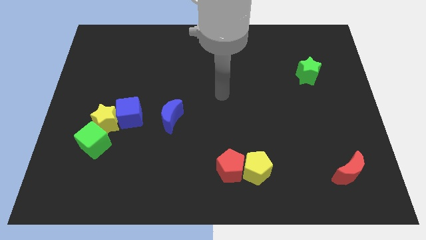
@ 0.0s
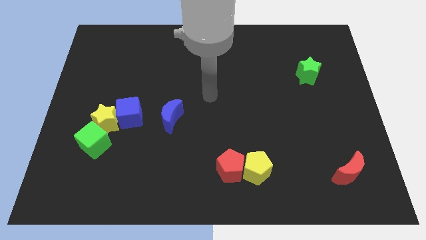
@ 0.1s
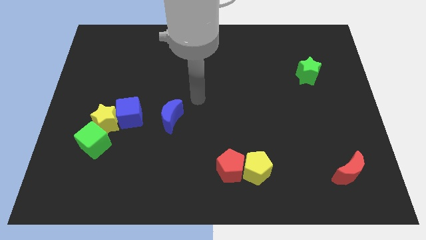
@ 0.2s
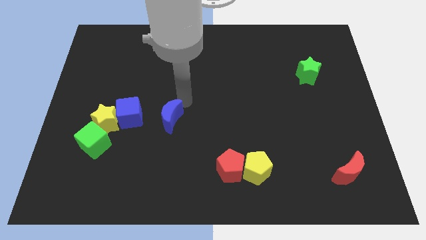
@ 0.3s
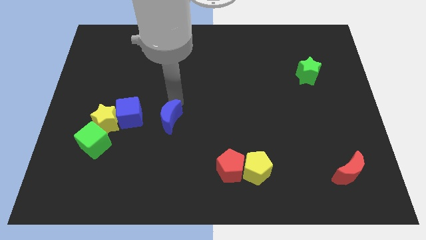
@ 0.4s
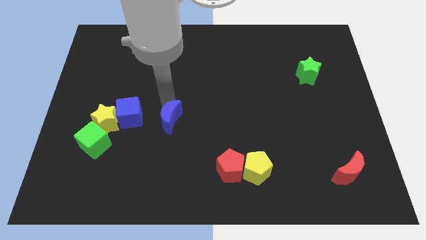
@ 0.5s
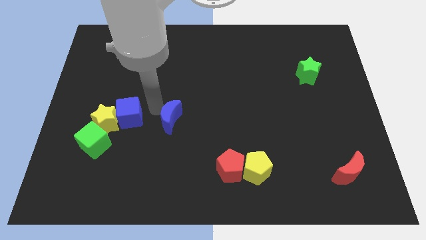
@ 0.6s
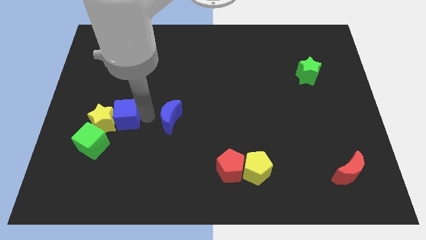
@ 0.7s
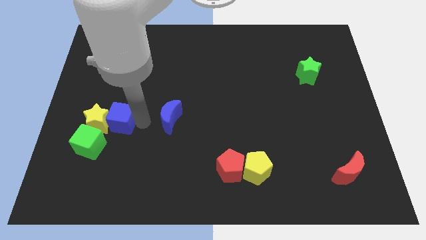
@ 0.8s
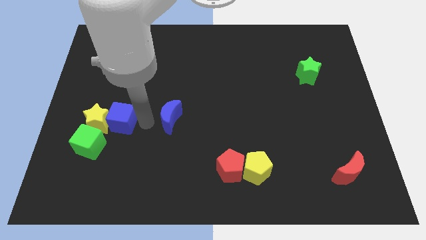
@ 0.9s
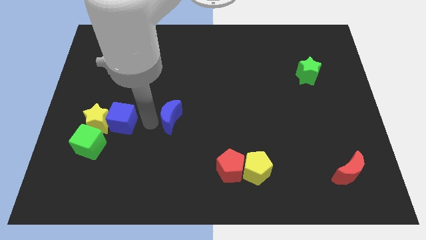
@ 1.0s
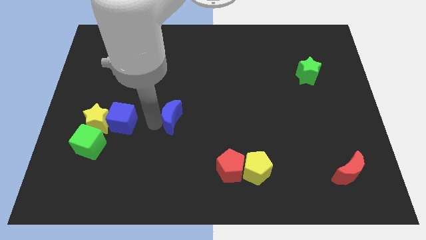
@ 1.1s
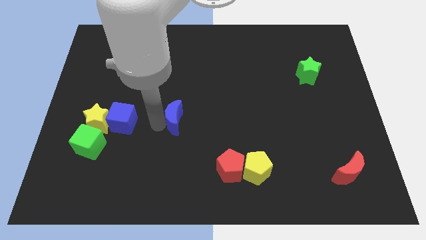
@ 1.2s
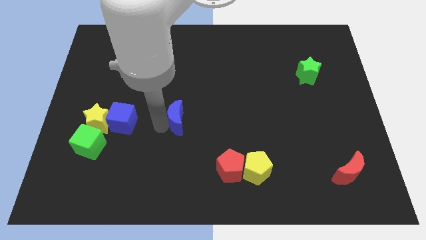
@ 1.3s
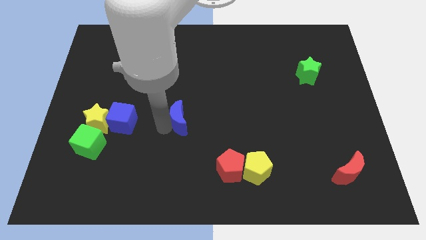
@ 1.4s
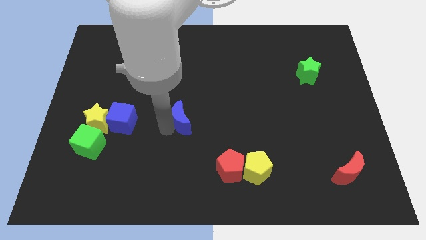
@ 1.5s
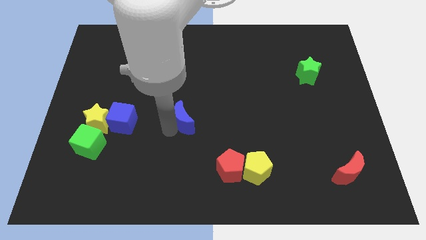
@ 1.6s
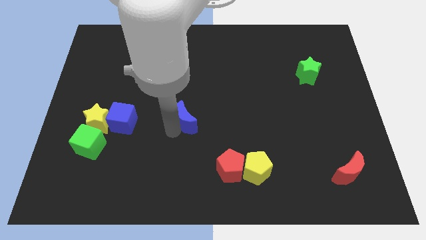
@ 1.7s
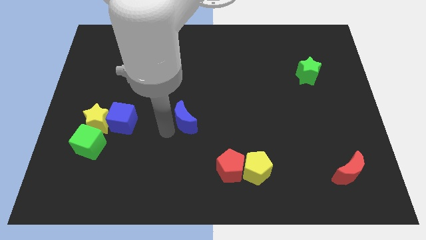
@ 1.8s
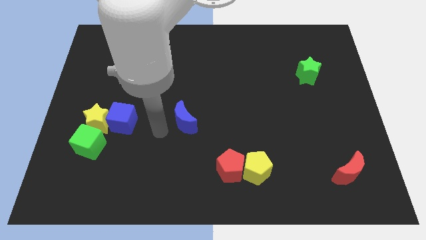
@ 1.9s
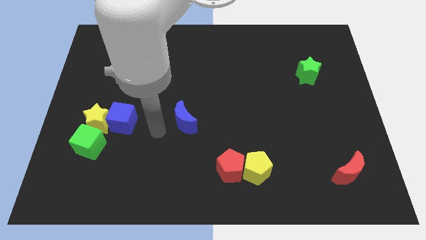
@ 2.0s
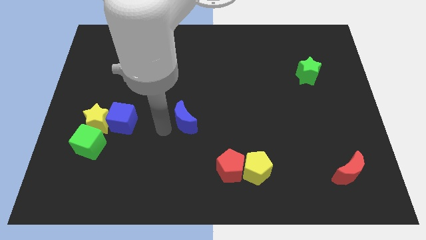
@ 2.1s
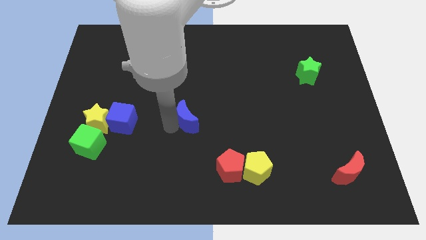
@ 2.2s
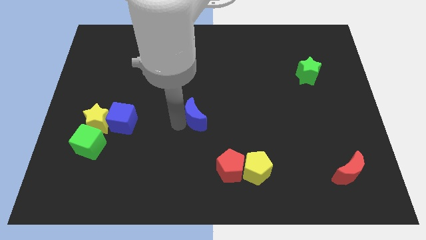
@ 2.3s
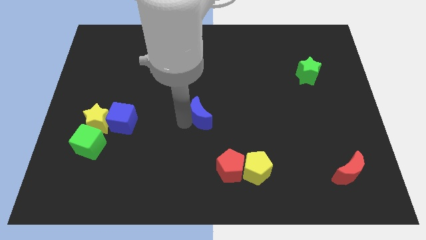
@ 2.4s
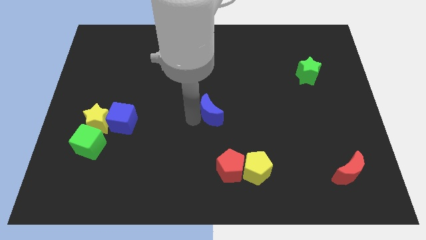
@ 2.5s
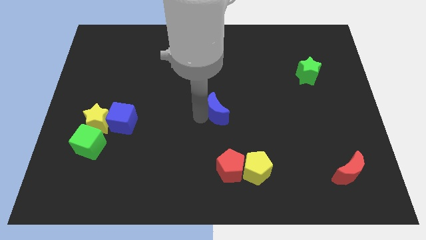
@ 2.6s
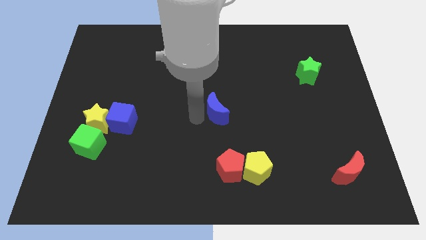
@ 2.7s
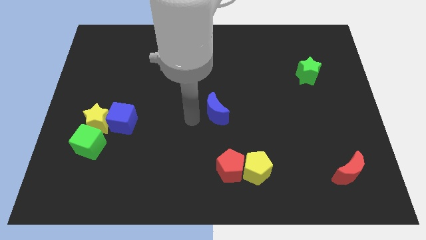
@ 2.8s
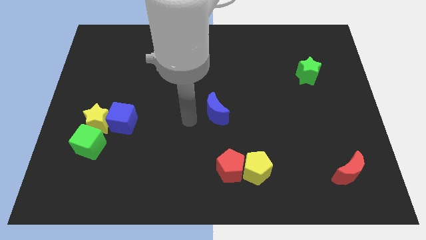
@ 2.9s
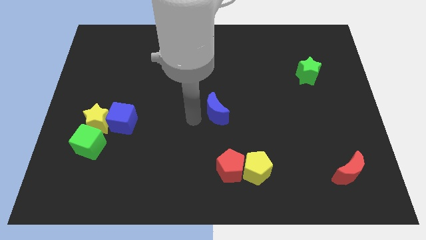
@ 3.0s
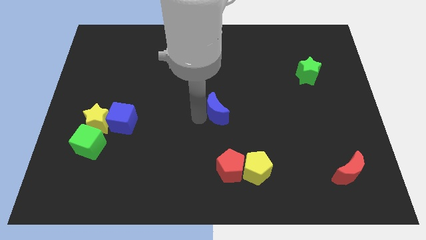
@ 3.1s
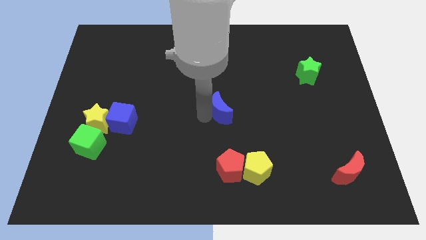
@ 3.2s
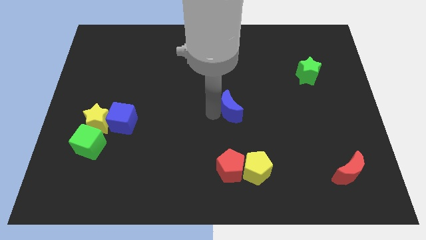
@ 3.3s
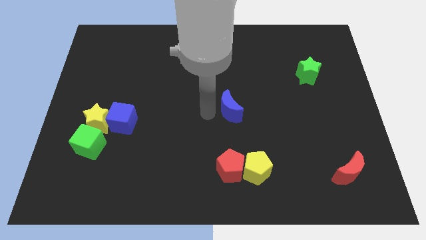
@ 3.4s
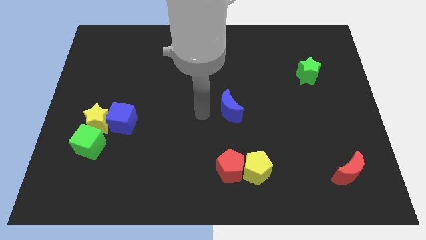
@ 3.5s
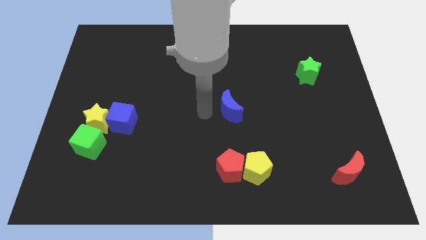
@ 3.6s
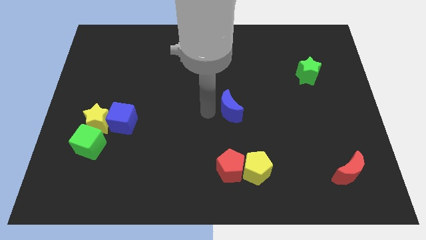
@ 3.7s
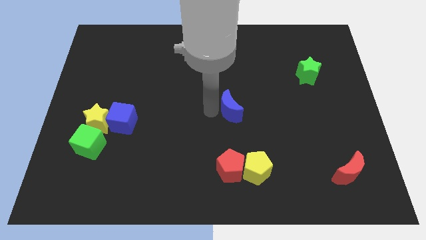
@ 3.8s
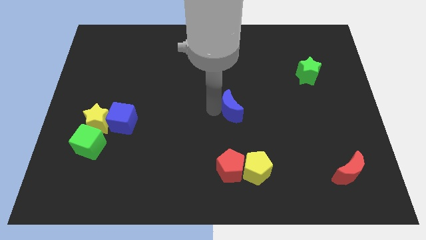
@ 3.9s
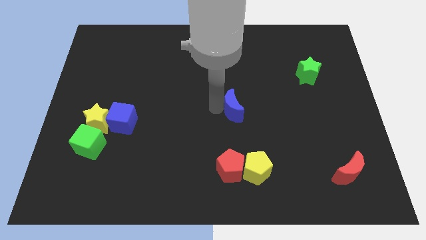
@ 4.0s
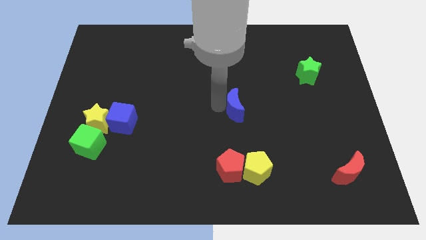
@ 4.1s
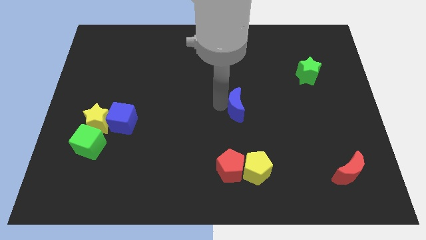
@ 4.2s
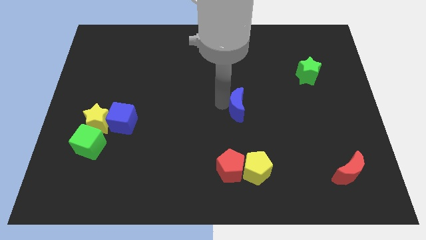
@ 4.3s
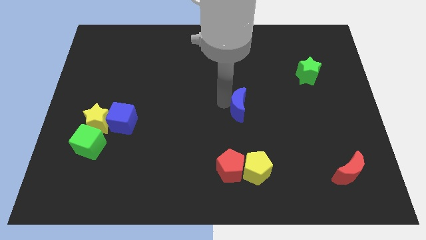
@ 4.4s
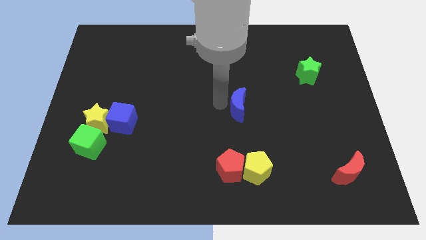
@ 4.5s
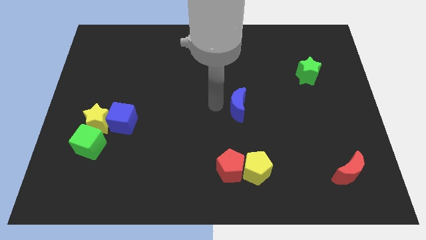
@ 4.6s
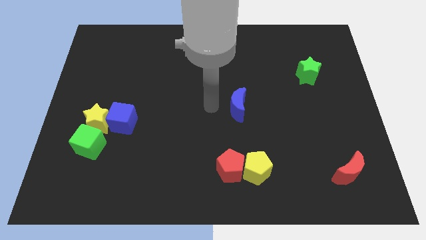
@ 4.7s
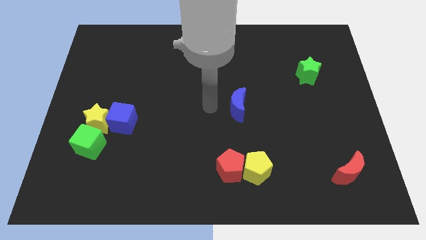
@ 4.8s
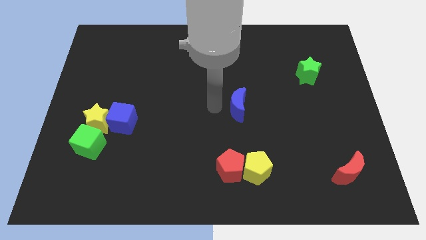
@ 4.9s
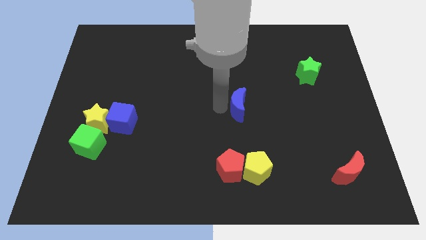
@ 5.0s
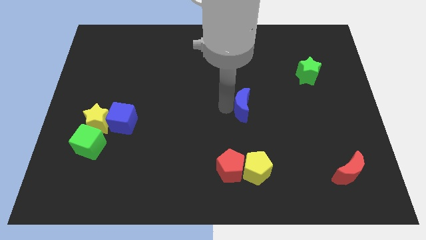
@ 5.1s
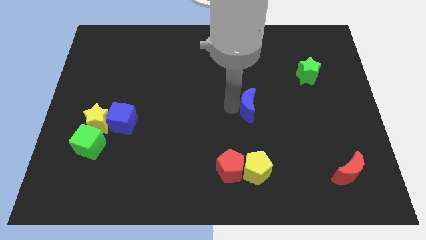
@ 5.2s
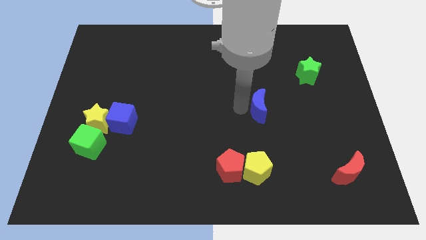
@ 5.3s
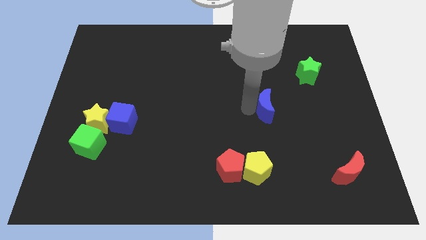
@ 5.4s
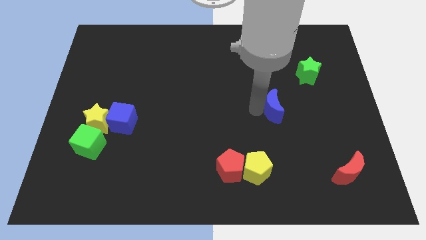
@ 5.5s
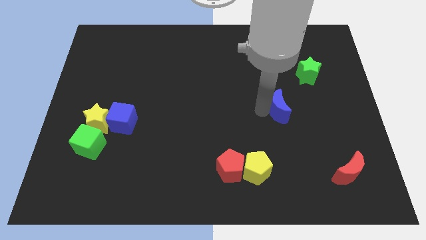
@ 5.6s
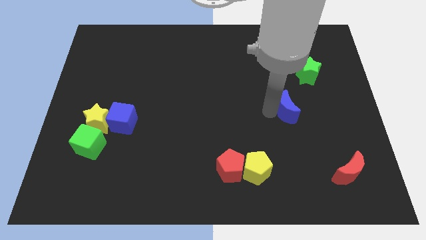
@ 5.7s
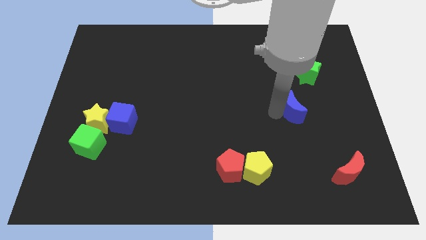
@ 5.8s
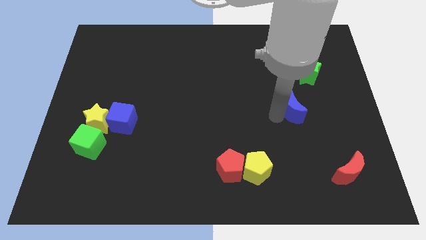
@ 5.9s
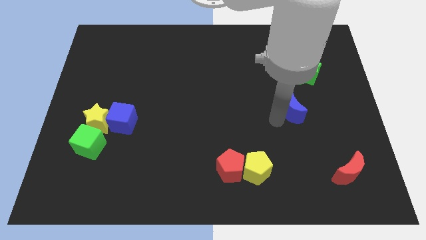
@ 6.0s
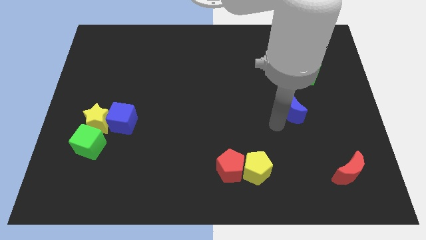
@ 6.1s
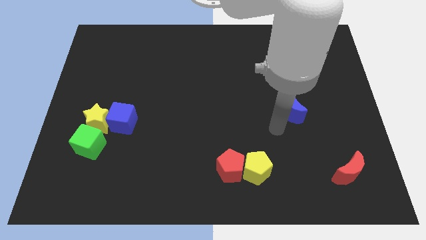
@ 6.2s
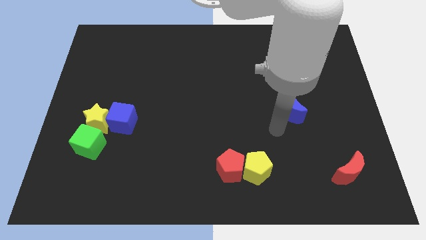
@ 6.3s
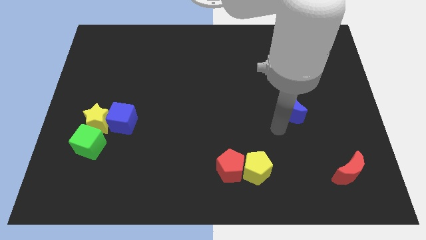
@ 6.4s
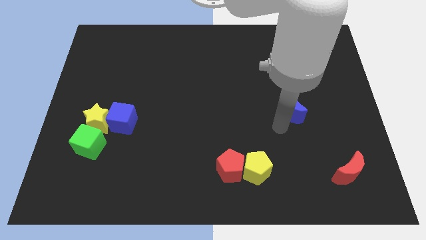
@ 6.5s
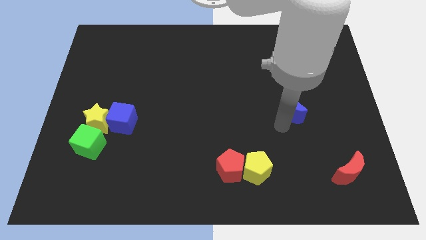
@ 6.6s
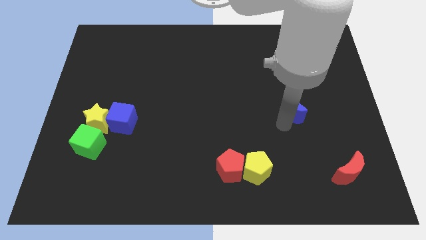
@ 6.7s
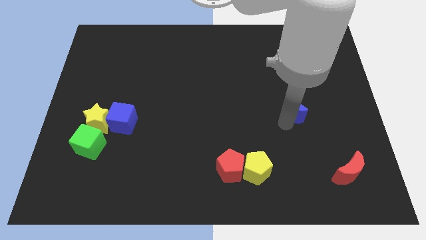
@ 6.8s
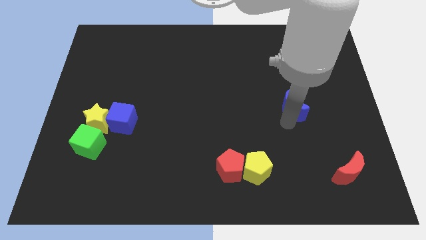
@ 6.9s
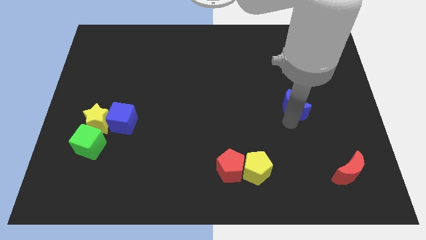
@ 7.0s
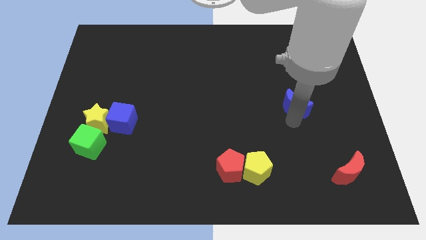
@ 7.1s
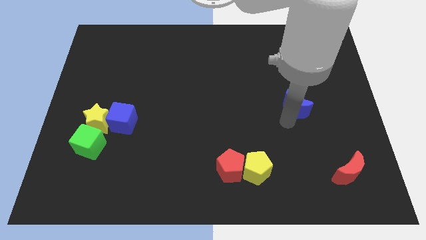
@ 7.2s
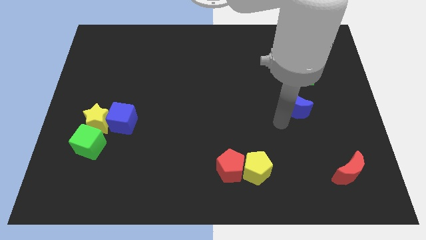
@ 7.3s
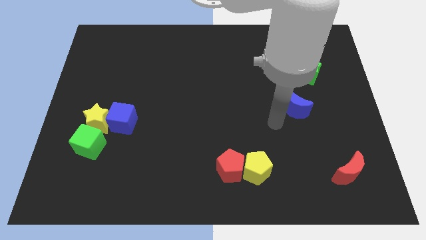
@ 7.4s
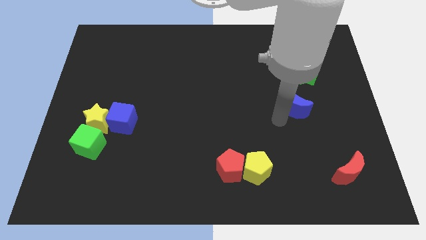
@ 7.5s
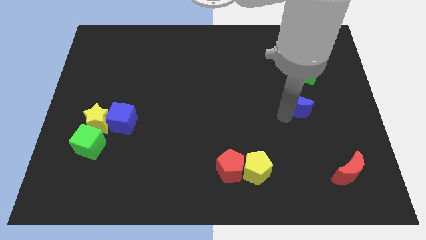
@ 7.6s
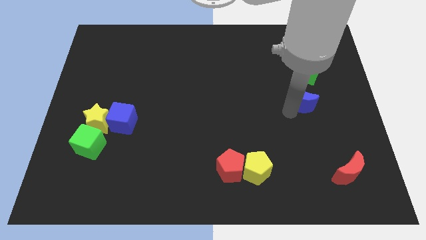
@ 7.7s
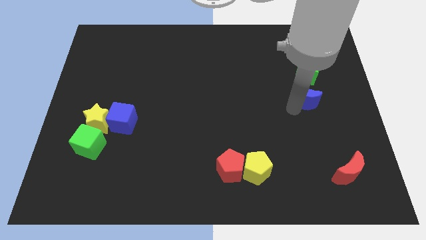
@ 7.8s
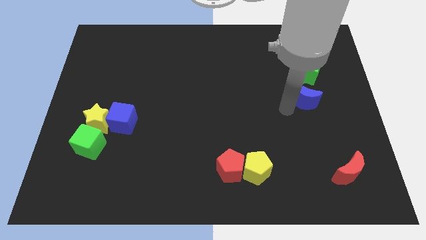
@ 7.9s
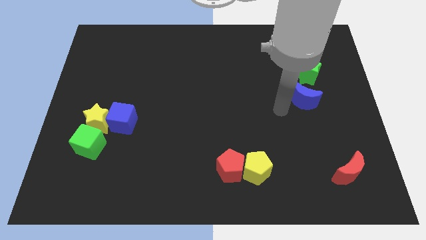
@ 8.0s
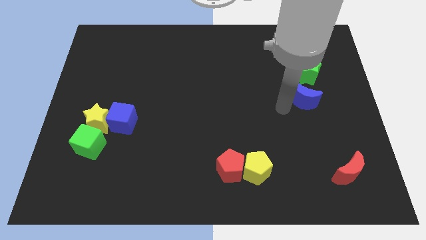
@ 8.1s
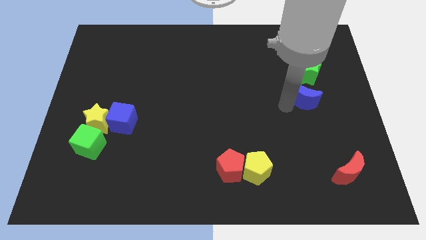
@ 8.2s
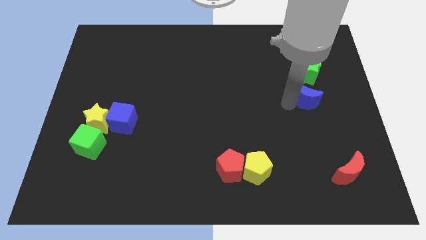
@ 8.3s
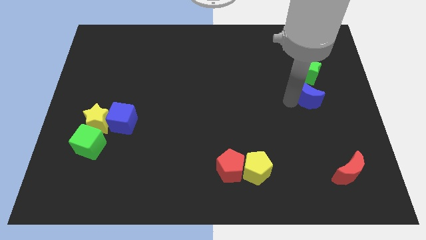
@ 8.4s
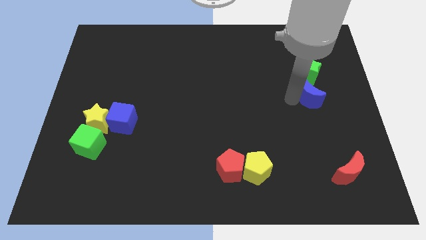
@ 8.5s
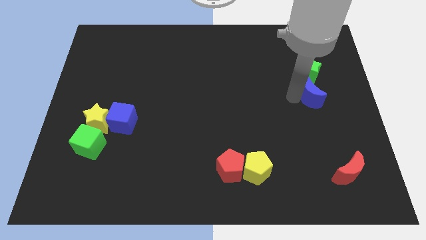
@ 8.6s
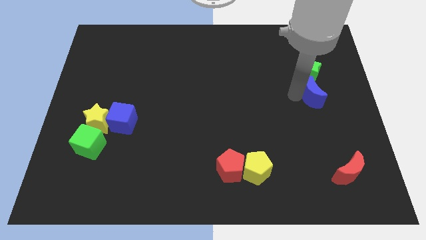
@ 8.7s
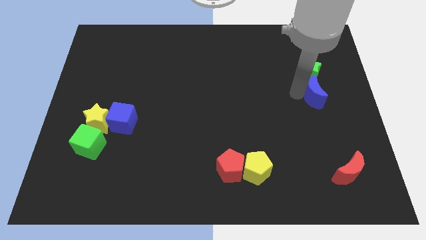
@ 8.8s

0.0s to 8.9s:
put the blue moon to the bottom right of the green star
